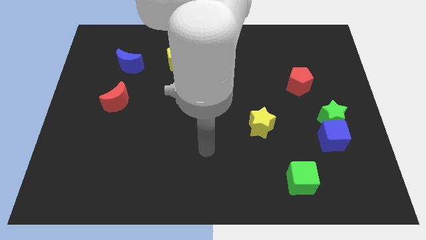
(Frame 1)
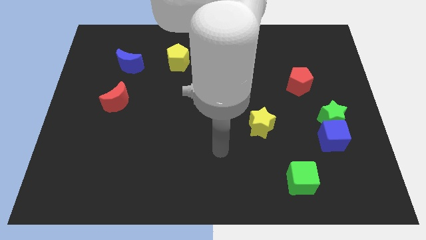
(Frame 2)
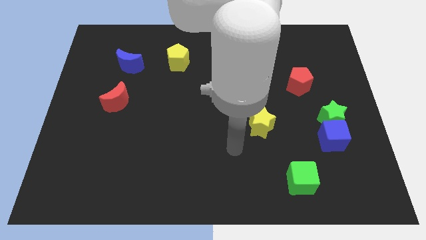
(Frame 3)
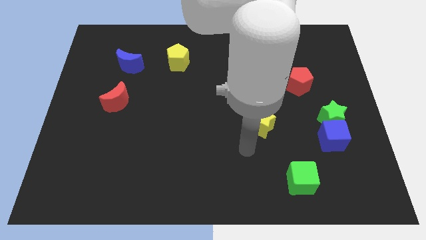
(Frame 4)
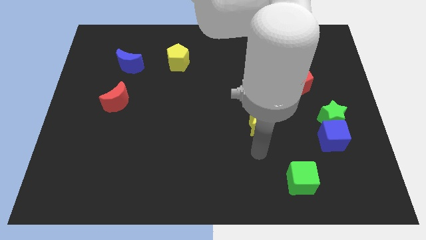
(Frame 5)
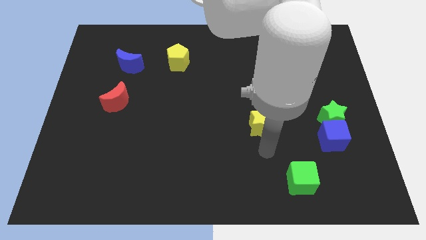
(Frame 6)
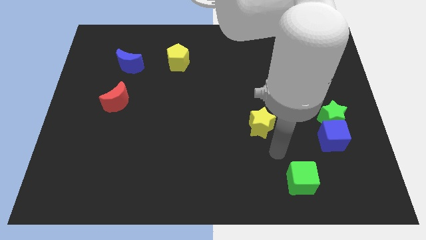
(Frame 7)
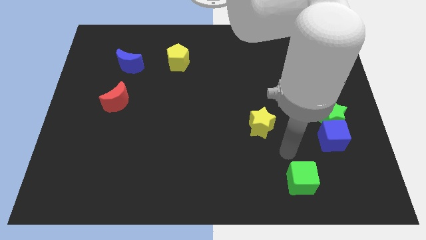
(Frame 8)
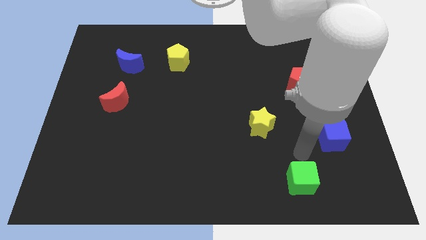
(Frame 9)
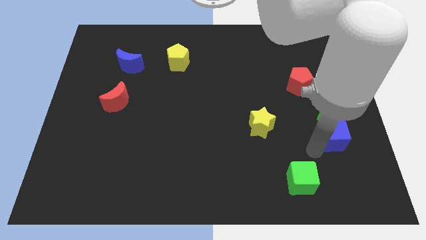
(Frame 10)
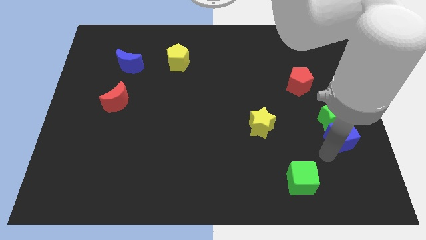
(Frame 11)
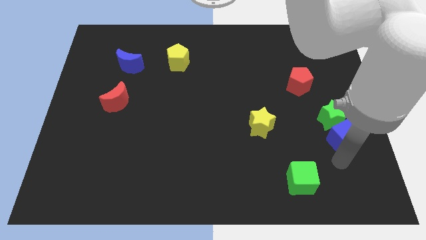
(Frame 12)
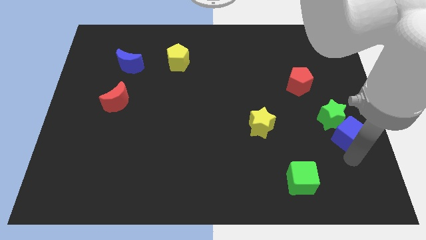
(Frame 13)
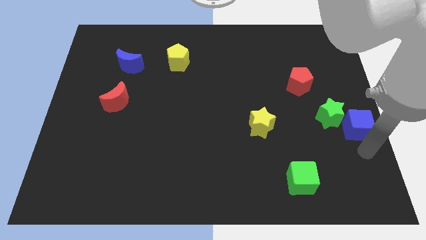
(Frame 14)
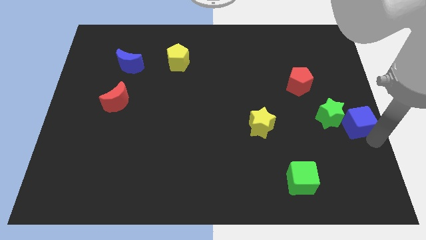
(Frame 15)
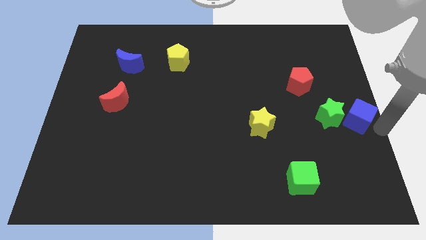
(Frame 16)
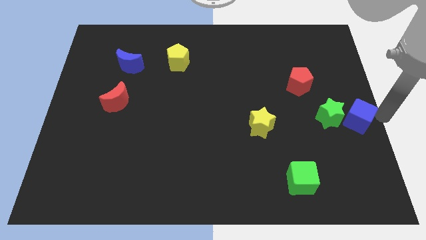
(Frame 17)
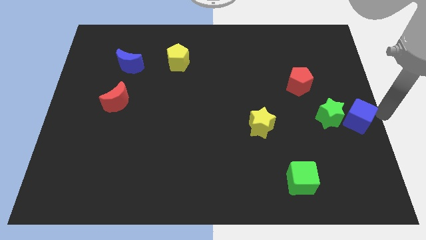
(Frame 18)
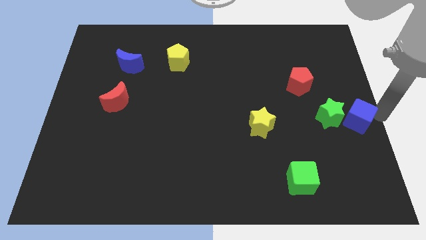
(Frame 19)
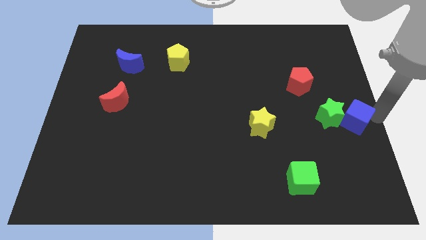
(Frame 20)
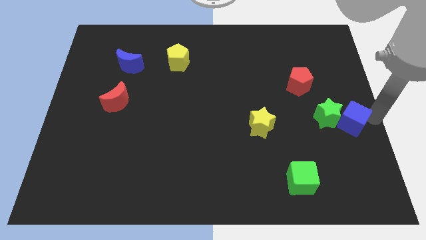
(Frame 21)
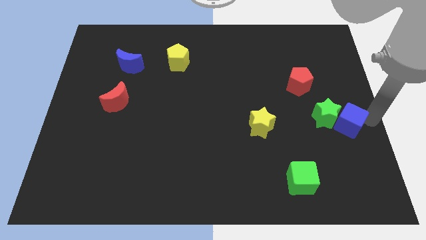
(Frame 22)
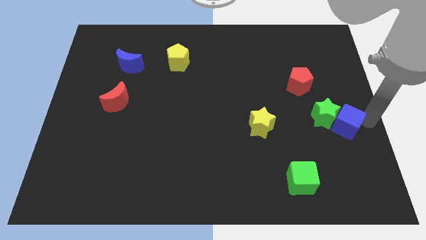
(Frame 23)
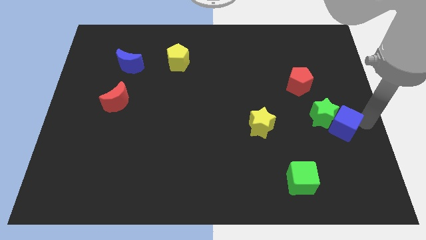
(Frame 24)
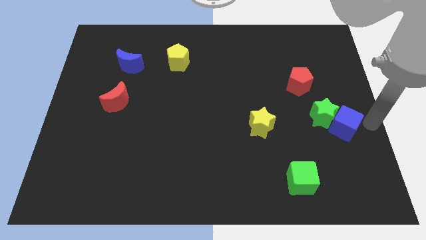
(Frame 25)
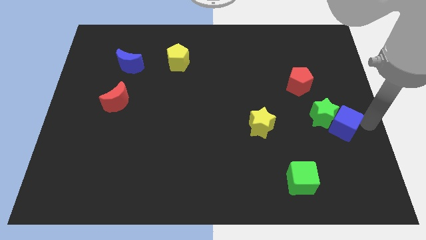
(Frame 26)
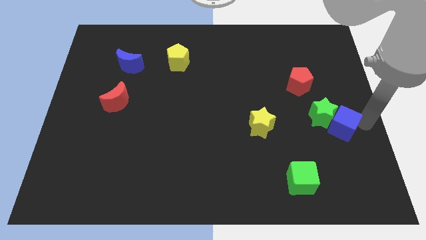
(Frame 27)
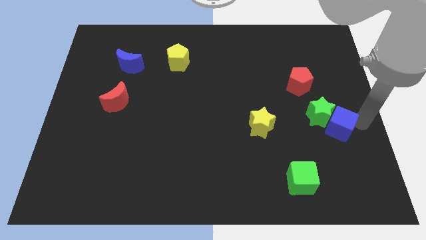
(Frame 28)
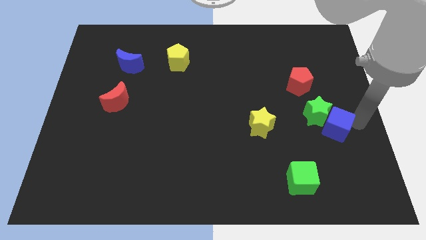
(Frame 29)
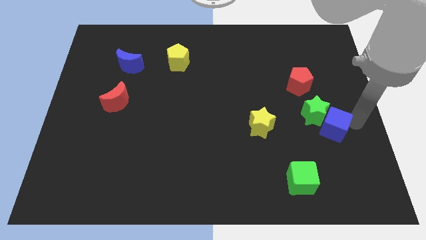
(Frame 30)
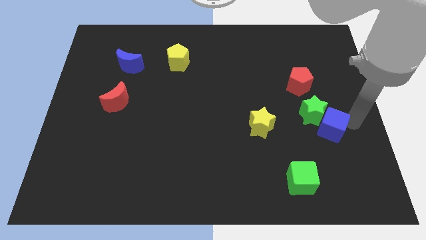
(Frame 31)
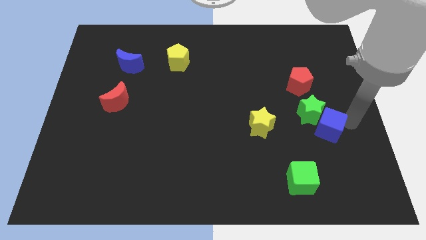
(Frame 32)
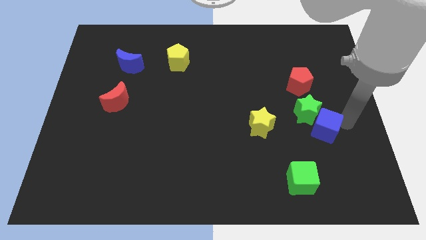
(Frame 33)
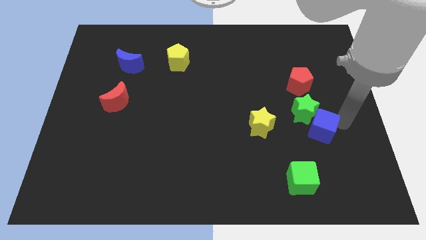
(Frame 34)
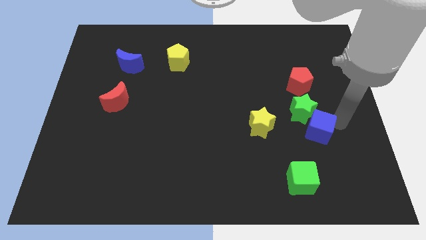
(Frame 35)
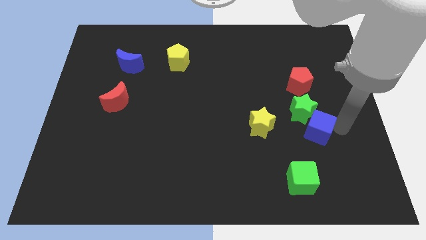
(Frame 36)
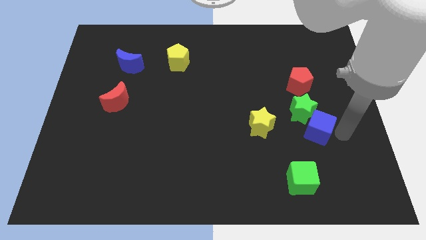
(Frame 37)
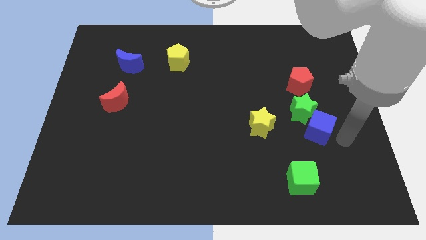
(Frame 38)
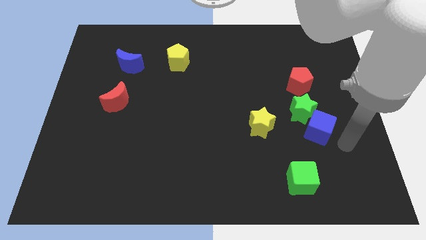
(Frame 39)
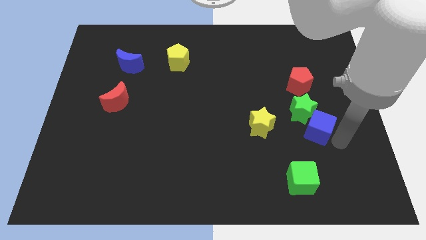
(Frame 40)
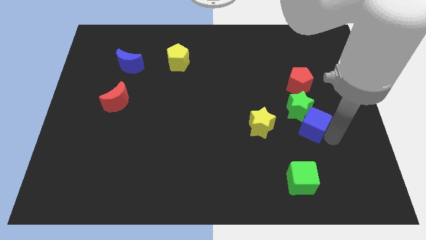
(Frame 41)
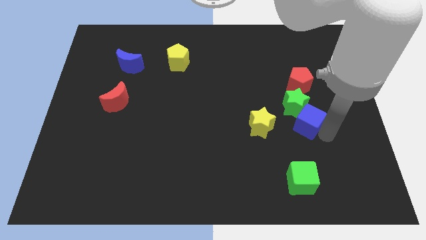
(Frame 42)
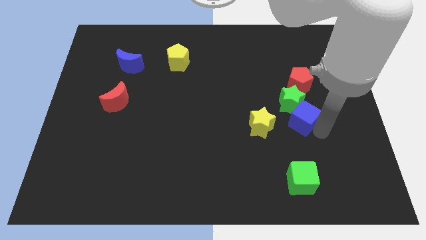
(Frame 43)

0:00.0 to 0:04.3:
slide the blue cube somewhat up and left diagonally

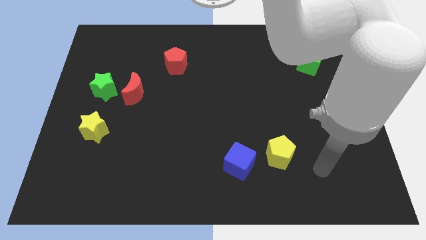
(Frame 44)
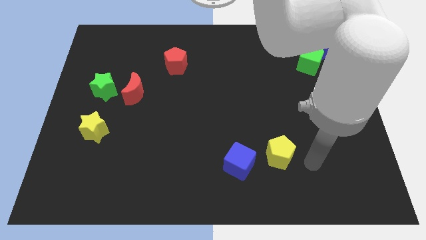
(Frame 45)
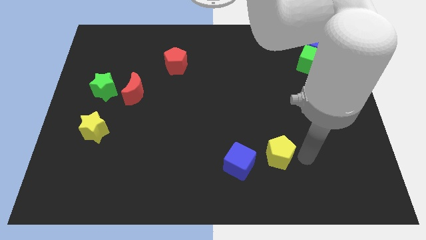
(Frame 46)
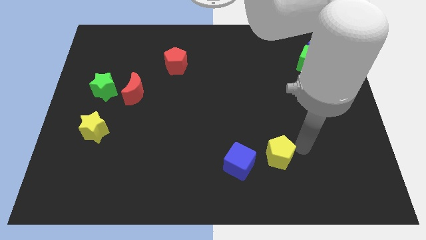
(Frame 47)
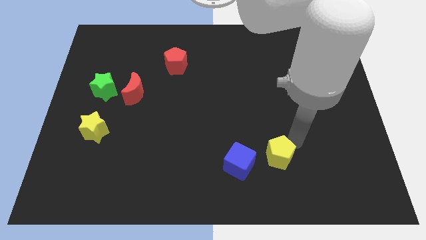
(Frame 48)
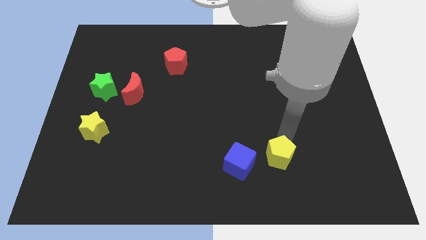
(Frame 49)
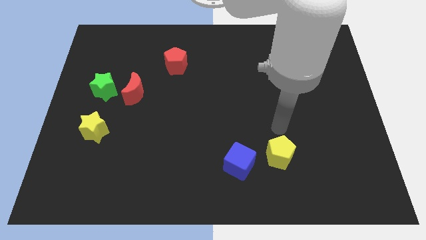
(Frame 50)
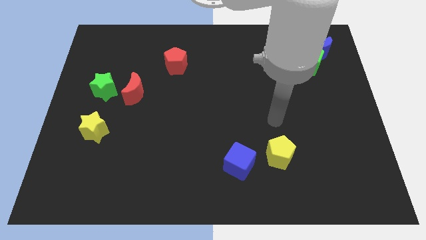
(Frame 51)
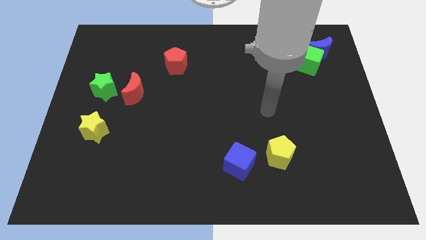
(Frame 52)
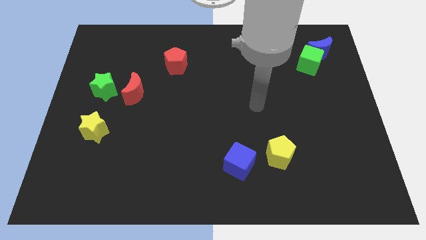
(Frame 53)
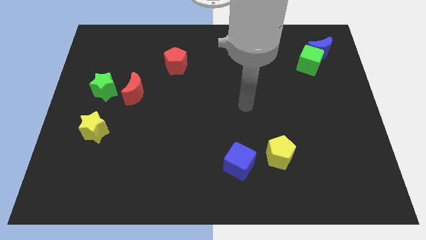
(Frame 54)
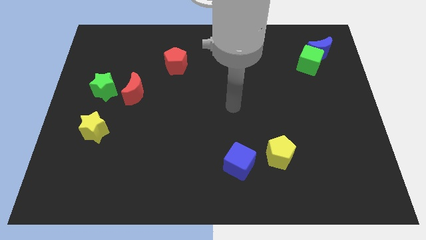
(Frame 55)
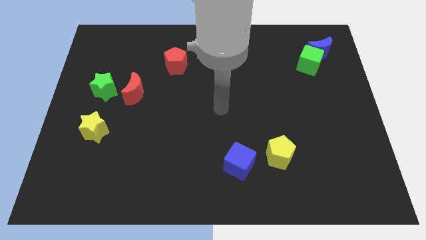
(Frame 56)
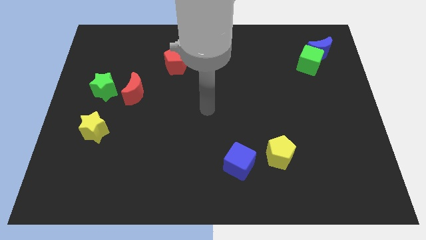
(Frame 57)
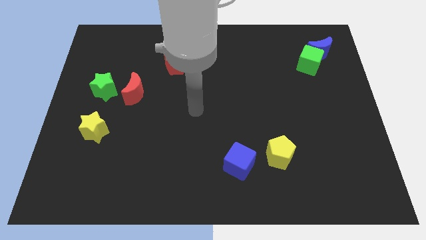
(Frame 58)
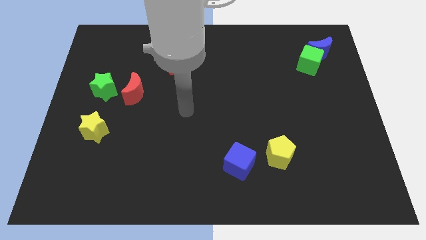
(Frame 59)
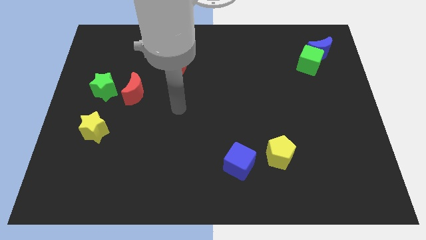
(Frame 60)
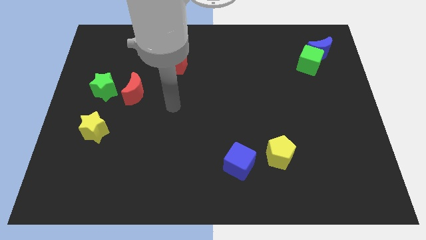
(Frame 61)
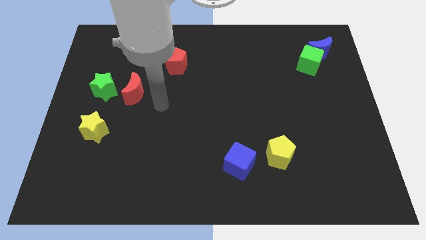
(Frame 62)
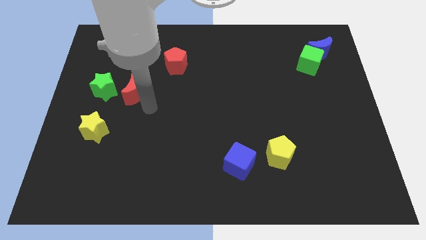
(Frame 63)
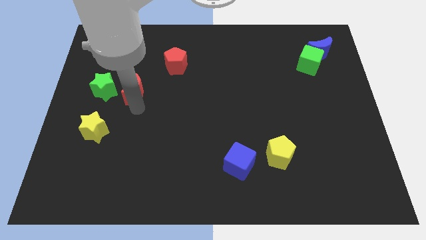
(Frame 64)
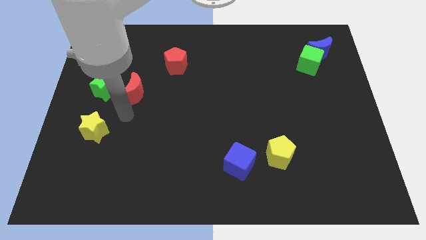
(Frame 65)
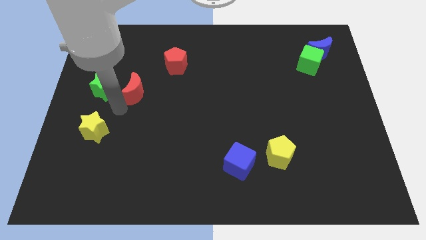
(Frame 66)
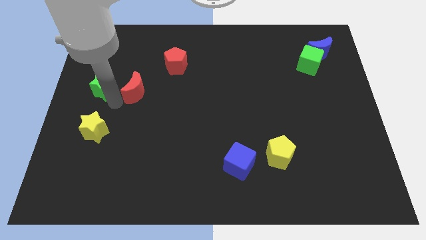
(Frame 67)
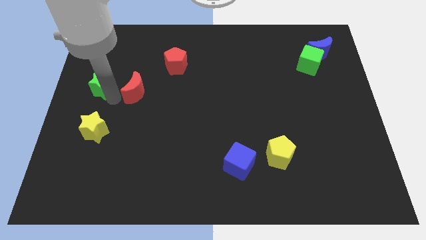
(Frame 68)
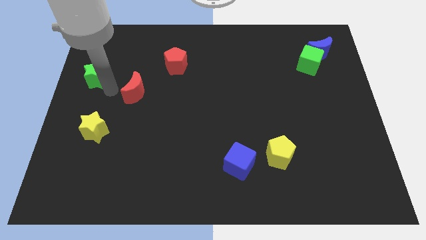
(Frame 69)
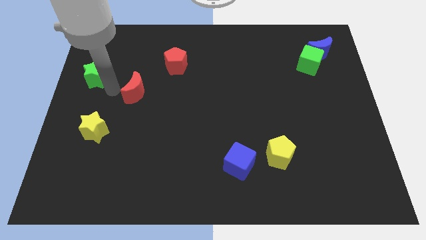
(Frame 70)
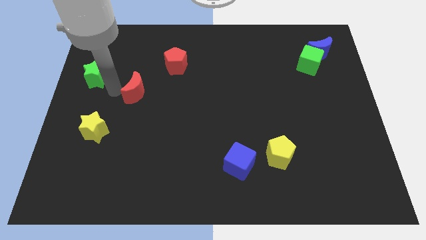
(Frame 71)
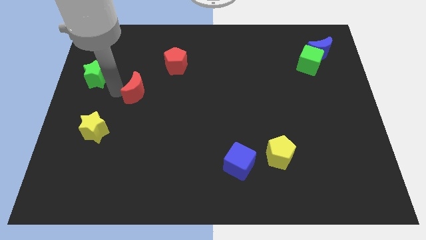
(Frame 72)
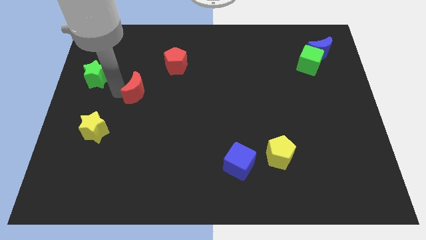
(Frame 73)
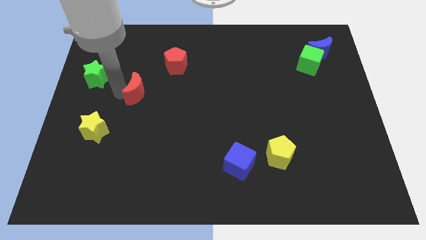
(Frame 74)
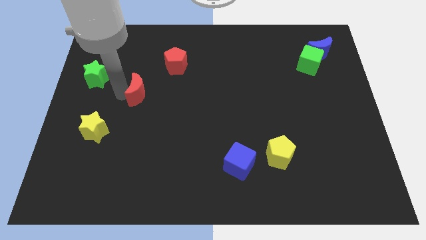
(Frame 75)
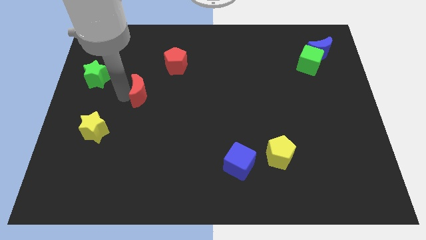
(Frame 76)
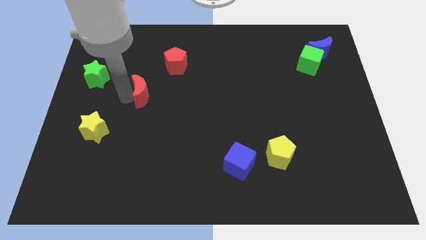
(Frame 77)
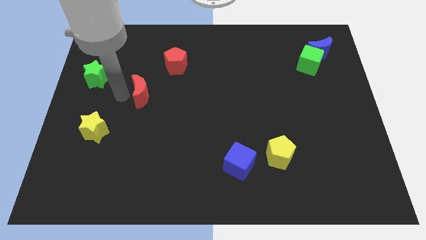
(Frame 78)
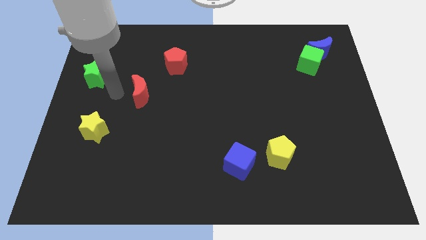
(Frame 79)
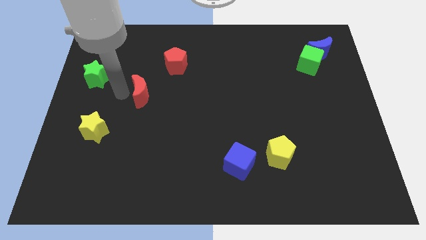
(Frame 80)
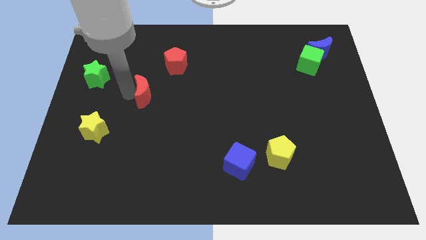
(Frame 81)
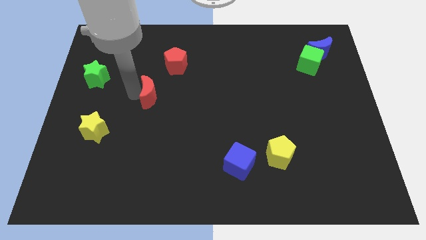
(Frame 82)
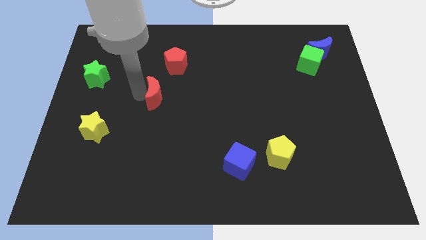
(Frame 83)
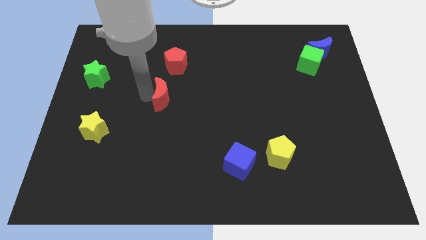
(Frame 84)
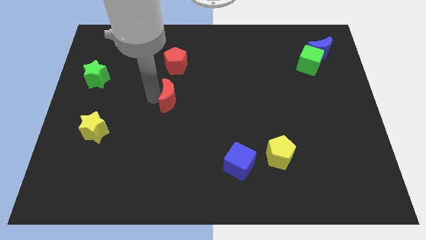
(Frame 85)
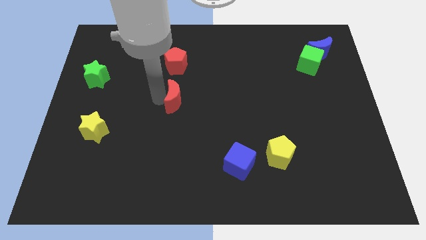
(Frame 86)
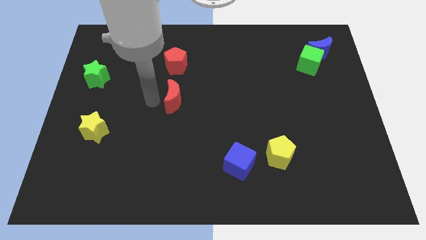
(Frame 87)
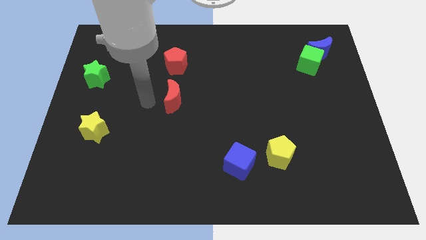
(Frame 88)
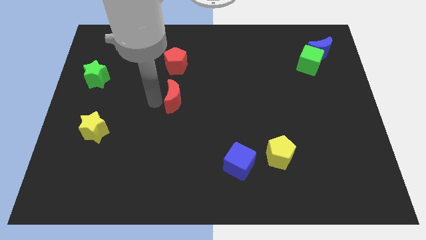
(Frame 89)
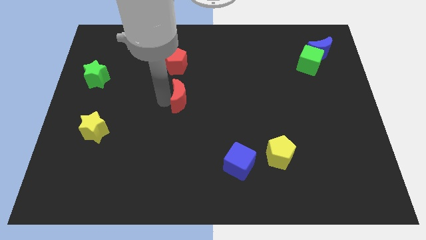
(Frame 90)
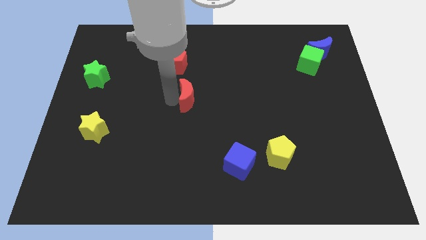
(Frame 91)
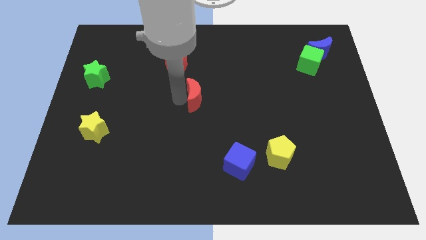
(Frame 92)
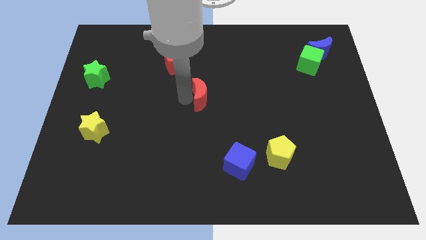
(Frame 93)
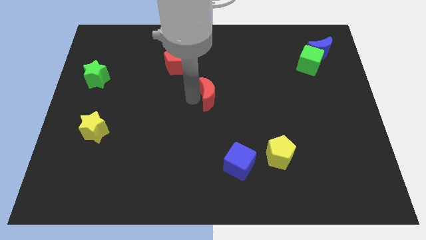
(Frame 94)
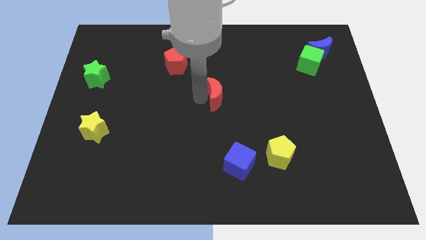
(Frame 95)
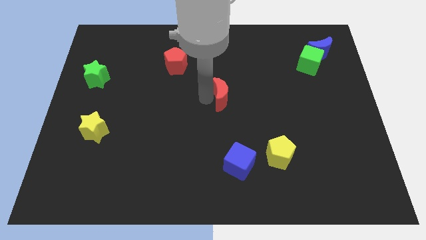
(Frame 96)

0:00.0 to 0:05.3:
push the red moon to the right
